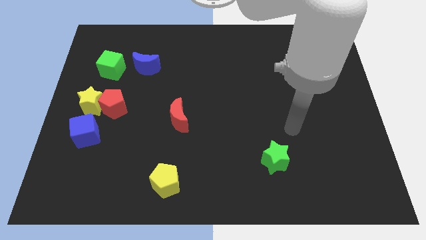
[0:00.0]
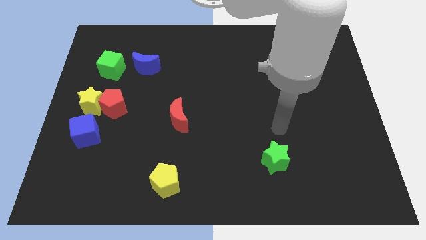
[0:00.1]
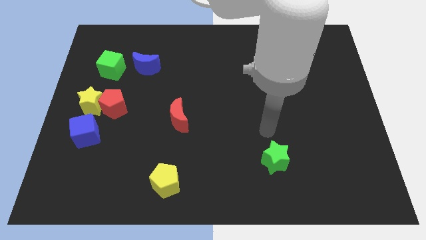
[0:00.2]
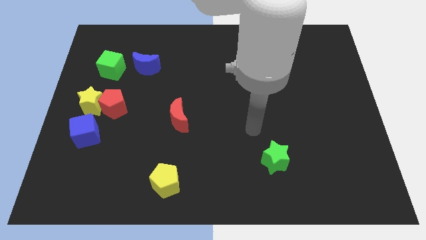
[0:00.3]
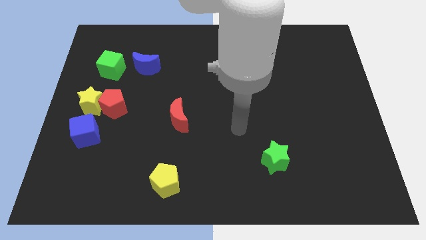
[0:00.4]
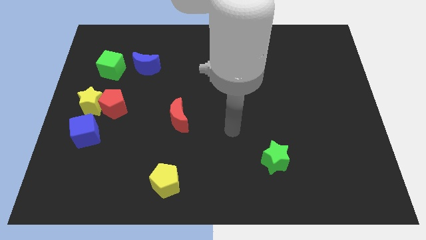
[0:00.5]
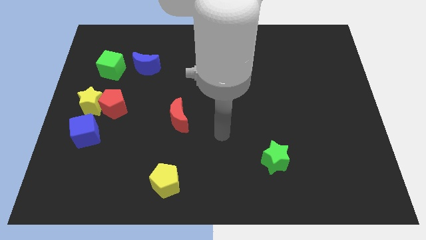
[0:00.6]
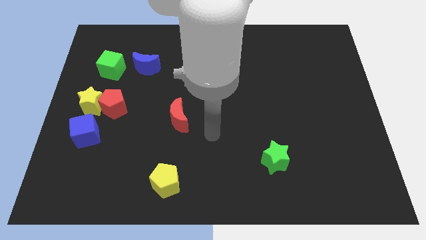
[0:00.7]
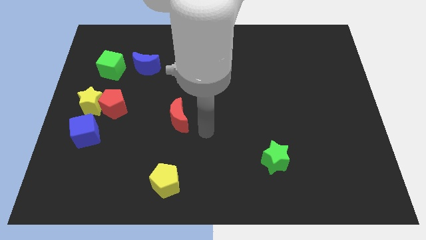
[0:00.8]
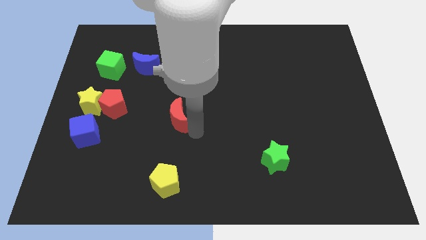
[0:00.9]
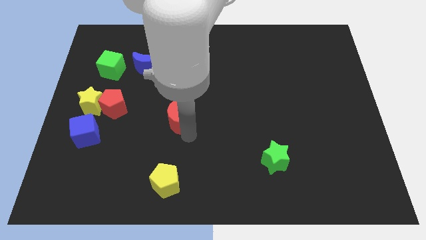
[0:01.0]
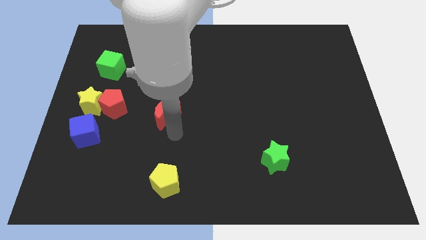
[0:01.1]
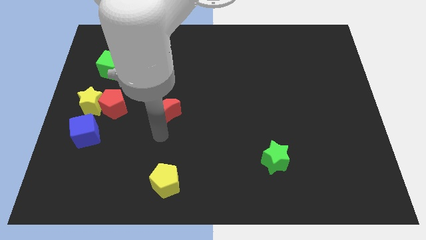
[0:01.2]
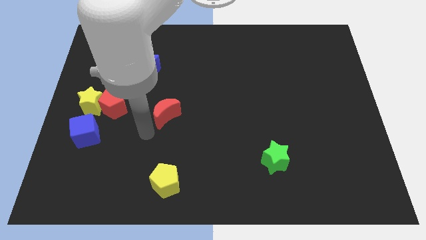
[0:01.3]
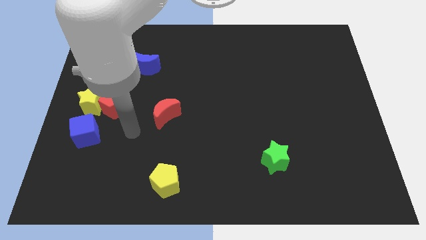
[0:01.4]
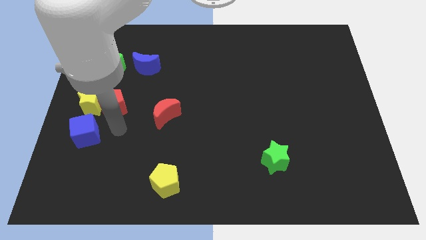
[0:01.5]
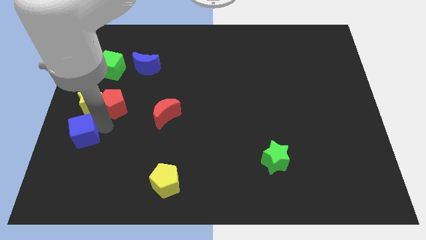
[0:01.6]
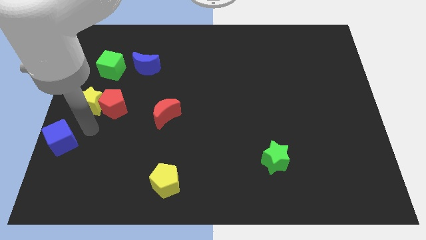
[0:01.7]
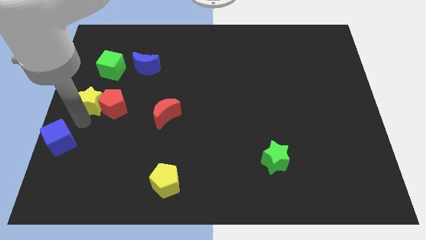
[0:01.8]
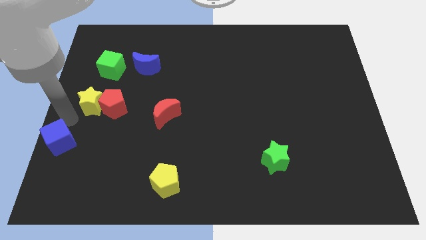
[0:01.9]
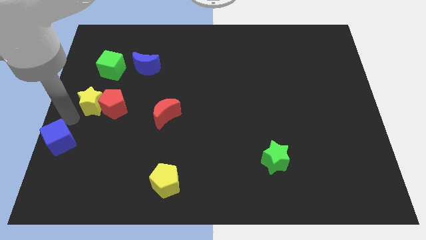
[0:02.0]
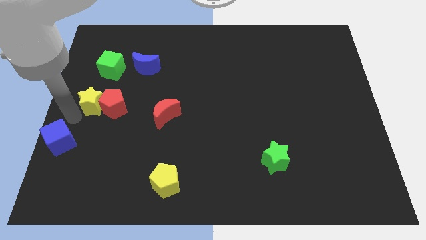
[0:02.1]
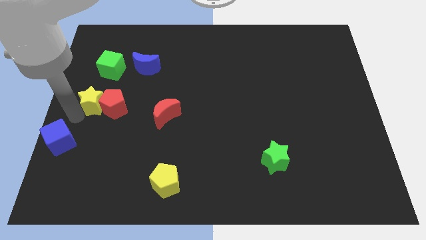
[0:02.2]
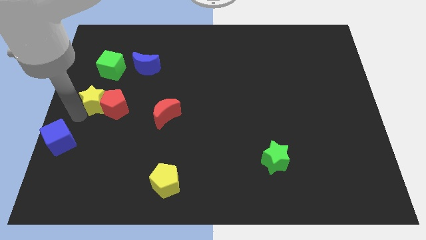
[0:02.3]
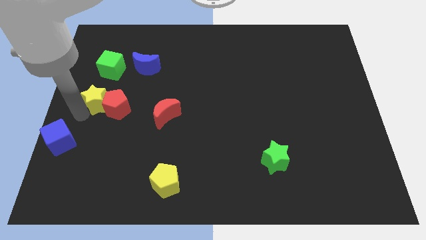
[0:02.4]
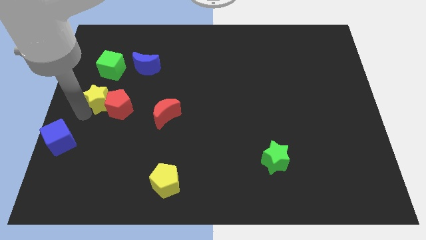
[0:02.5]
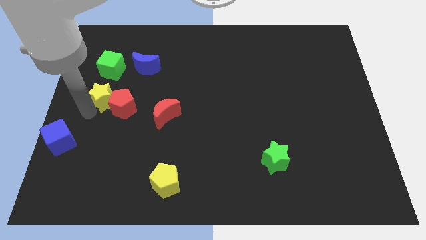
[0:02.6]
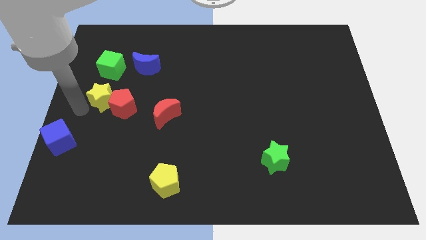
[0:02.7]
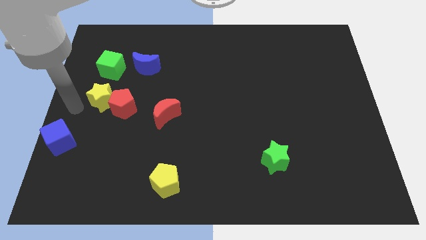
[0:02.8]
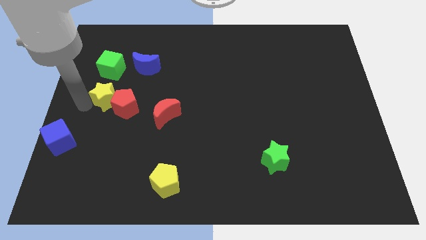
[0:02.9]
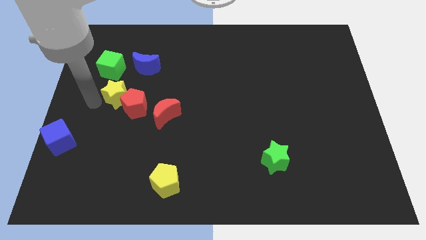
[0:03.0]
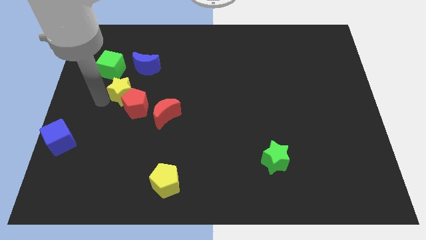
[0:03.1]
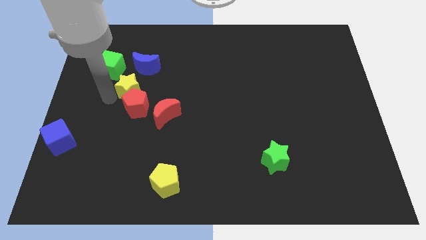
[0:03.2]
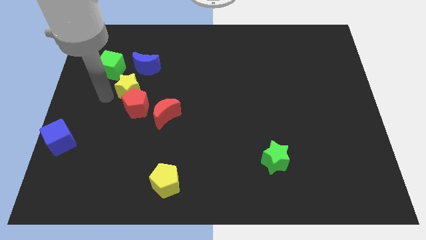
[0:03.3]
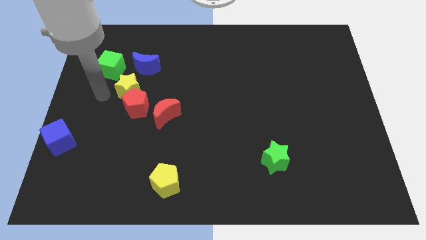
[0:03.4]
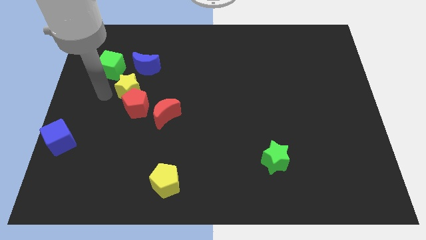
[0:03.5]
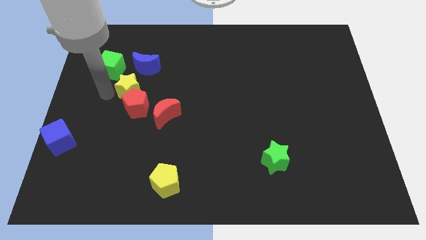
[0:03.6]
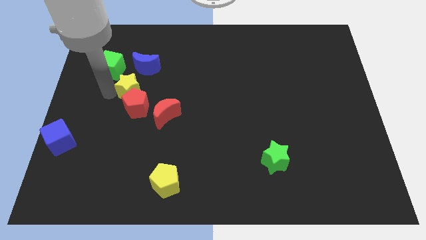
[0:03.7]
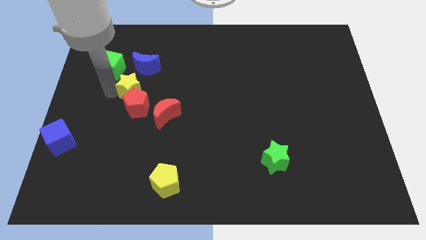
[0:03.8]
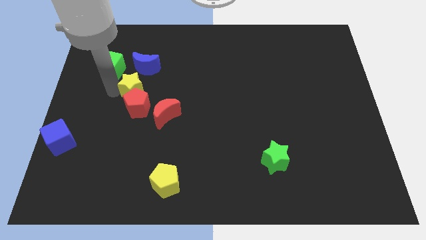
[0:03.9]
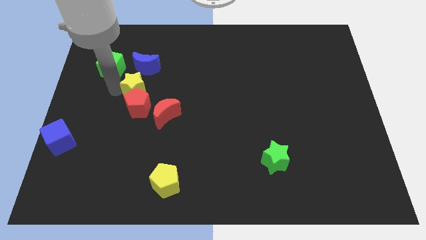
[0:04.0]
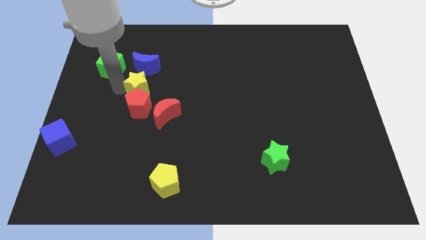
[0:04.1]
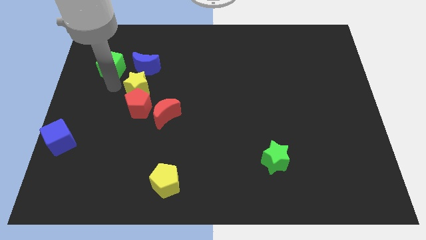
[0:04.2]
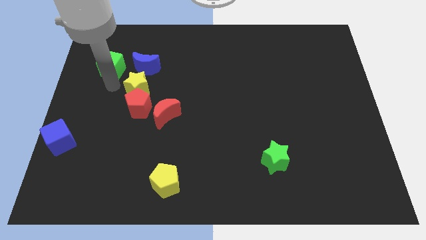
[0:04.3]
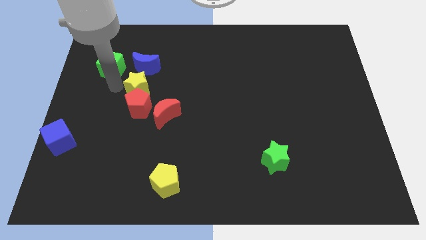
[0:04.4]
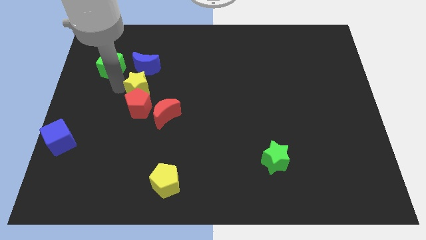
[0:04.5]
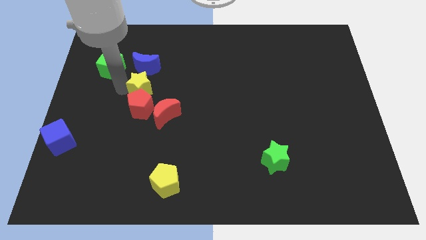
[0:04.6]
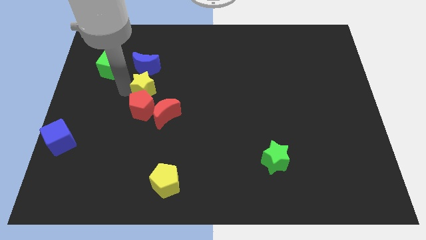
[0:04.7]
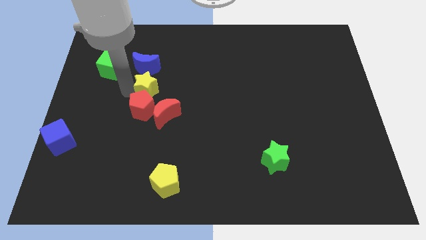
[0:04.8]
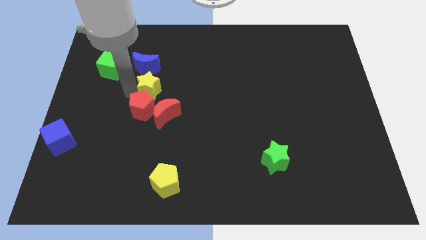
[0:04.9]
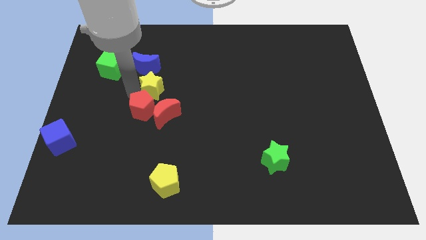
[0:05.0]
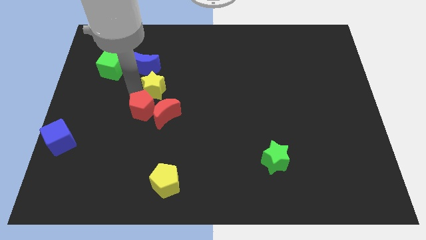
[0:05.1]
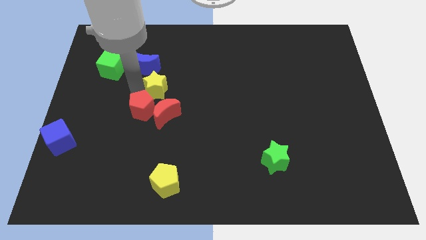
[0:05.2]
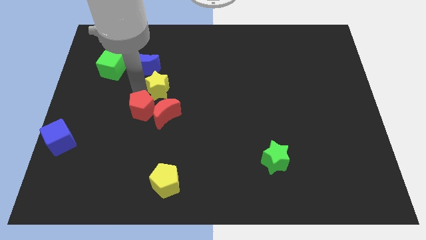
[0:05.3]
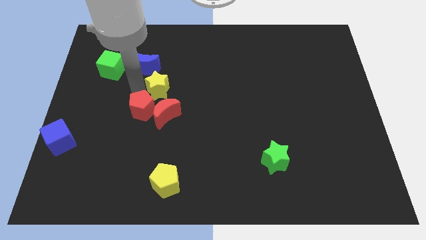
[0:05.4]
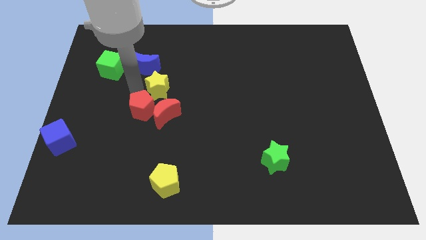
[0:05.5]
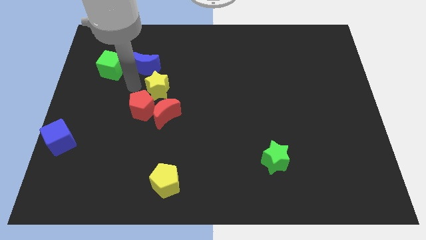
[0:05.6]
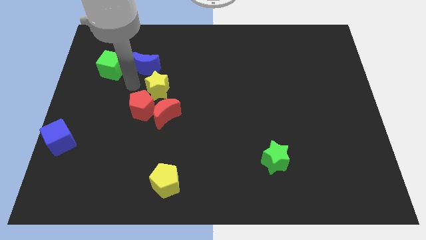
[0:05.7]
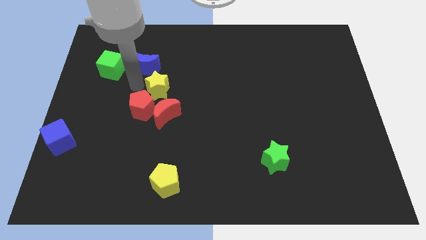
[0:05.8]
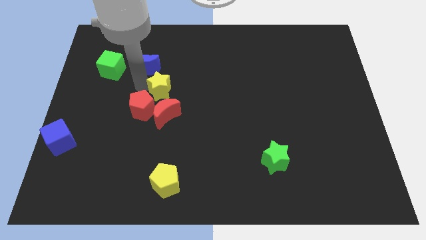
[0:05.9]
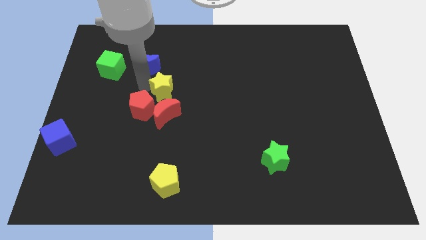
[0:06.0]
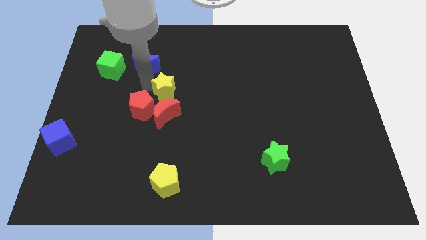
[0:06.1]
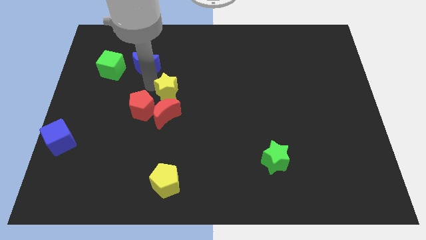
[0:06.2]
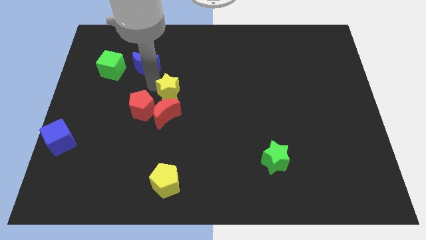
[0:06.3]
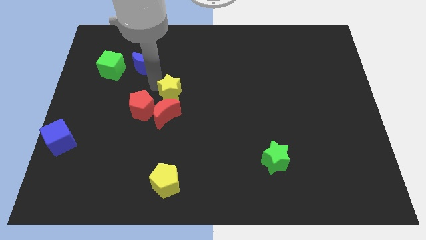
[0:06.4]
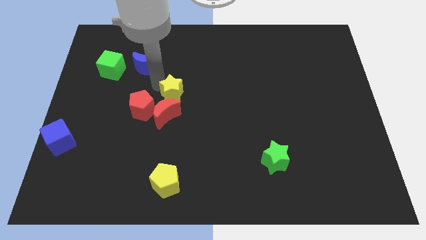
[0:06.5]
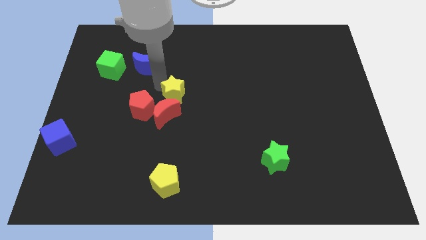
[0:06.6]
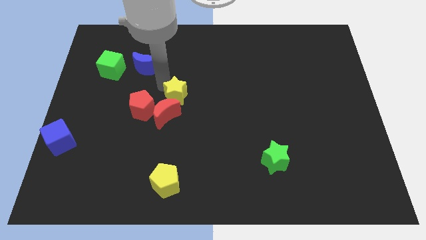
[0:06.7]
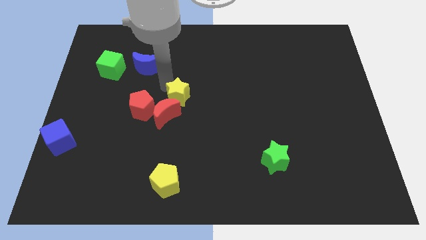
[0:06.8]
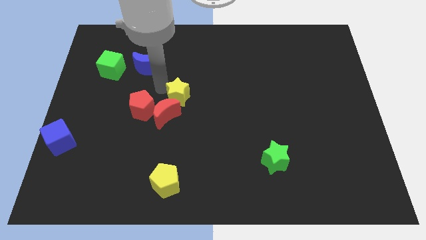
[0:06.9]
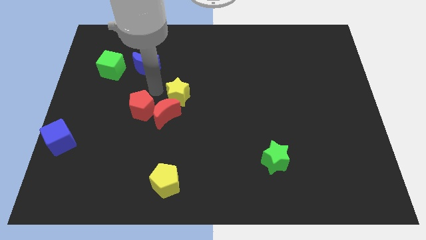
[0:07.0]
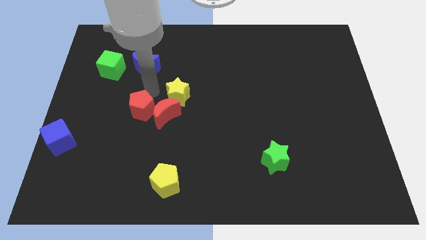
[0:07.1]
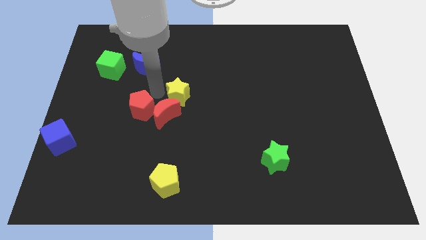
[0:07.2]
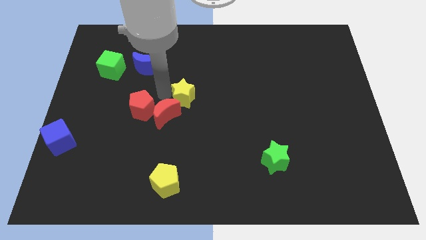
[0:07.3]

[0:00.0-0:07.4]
slide the yellow star to the right

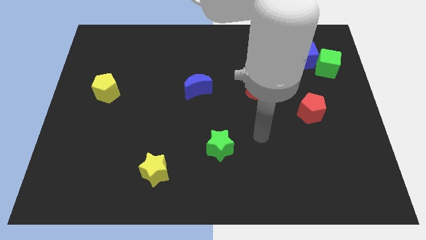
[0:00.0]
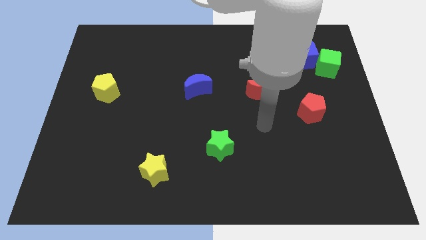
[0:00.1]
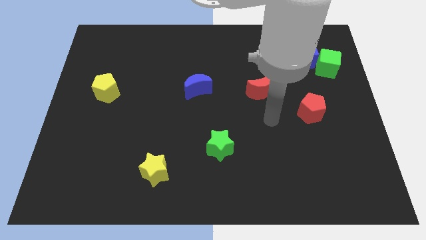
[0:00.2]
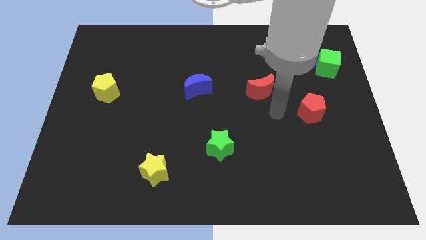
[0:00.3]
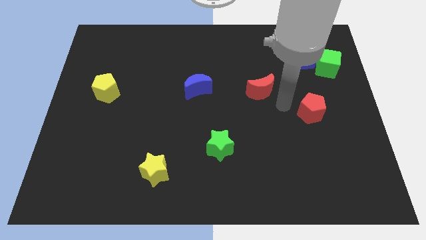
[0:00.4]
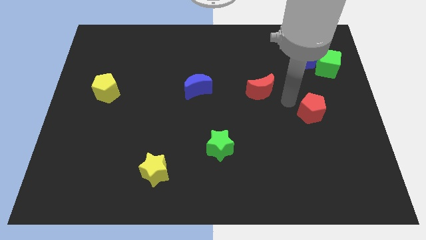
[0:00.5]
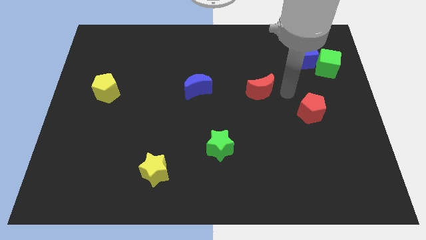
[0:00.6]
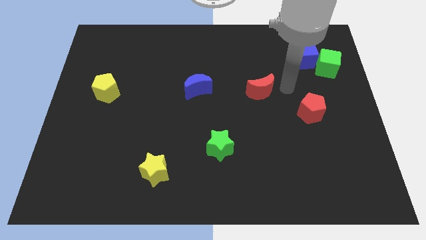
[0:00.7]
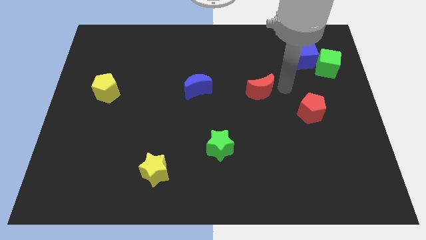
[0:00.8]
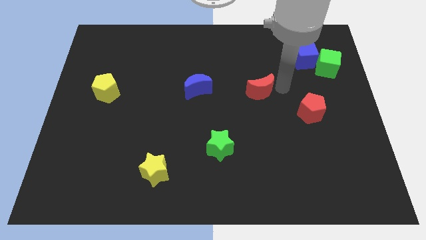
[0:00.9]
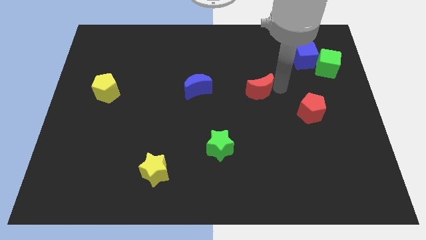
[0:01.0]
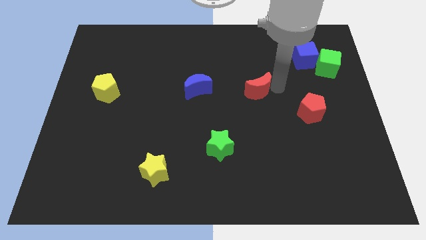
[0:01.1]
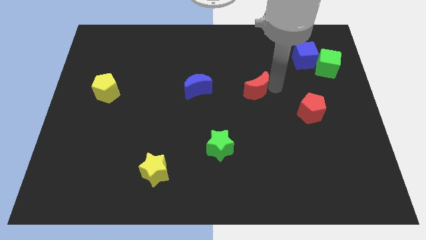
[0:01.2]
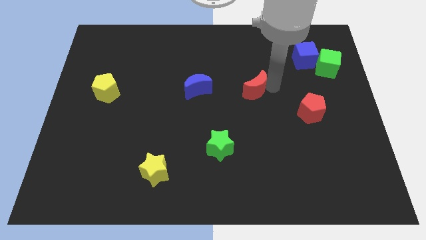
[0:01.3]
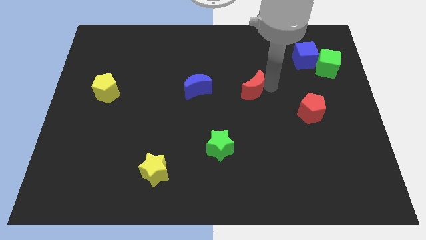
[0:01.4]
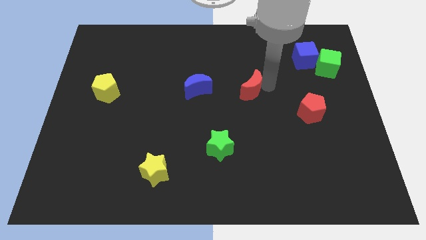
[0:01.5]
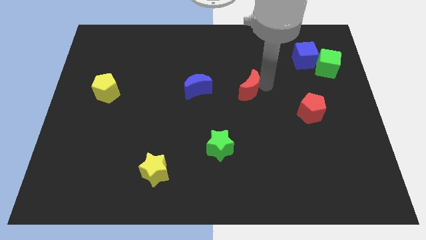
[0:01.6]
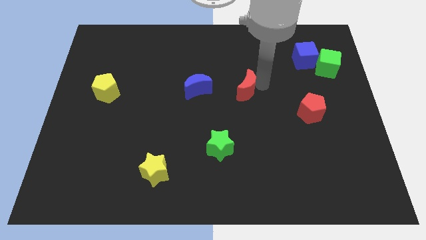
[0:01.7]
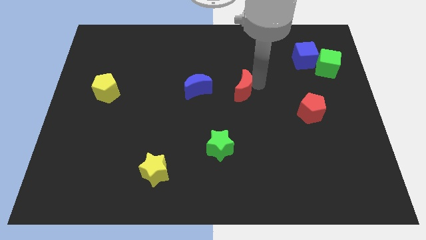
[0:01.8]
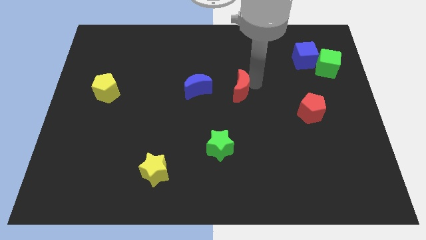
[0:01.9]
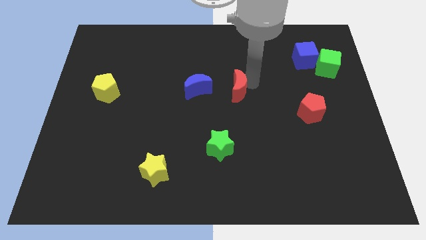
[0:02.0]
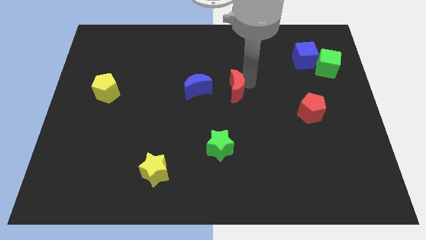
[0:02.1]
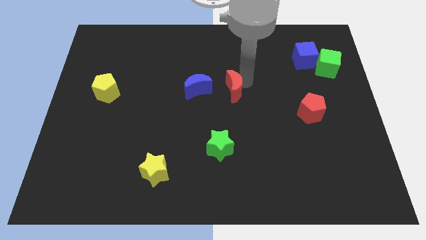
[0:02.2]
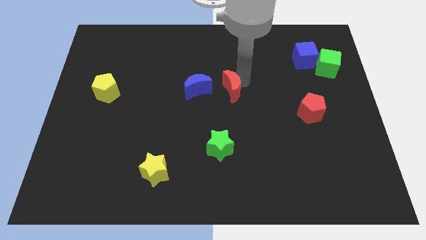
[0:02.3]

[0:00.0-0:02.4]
push the red moon a little bit to the left
